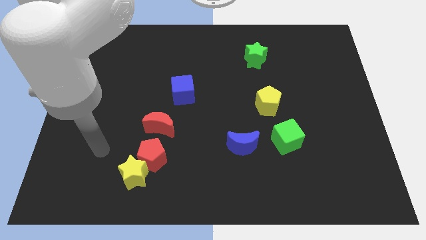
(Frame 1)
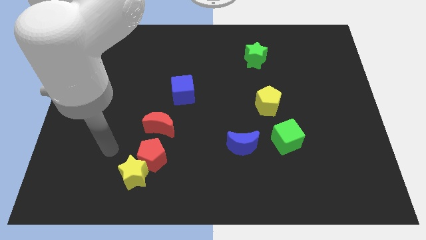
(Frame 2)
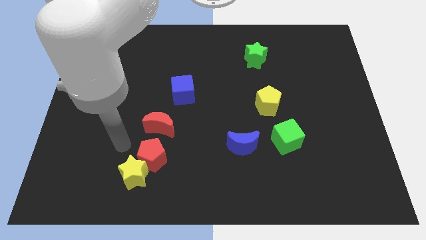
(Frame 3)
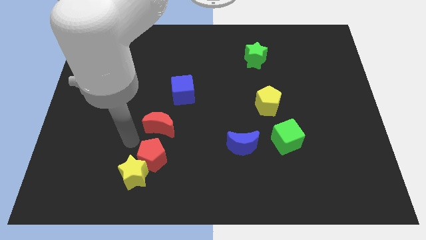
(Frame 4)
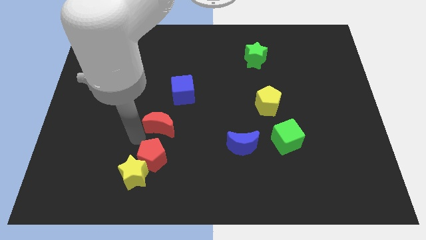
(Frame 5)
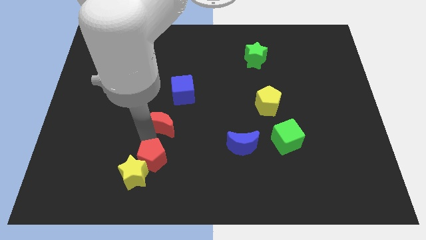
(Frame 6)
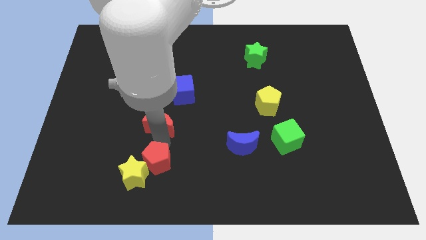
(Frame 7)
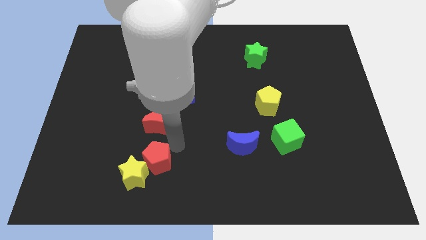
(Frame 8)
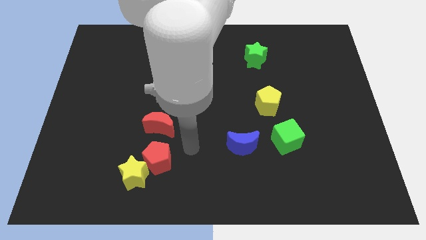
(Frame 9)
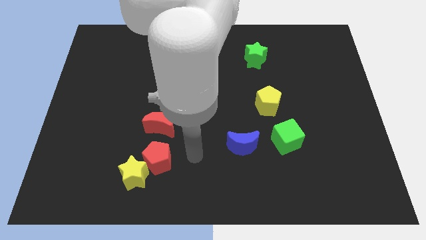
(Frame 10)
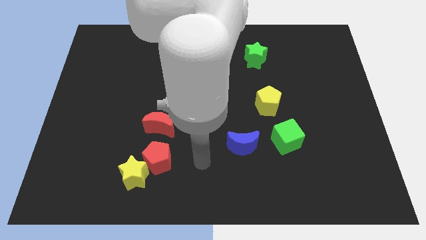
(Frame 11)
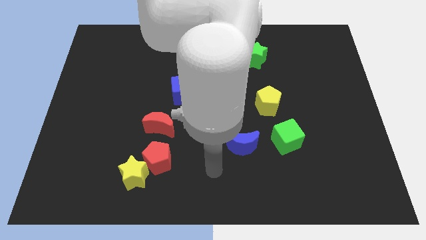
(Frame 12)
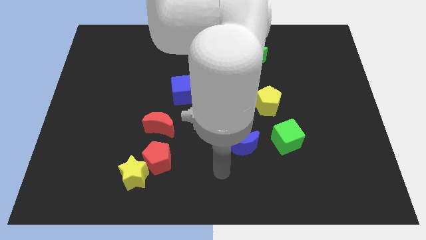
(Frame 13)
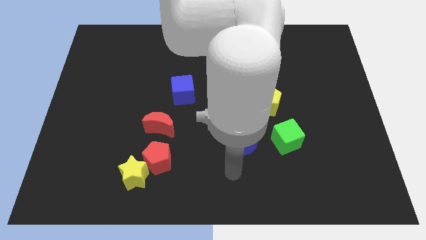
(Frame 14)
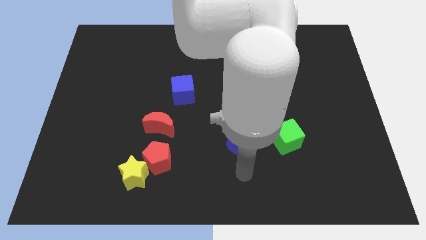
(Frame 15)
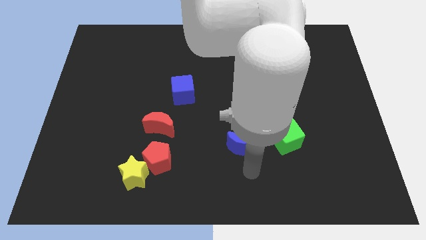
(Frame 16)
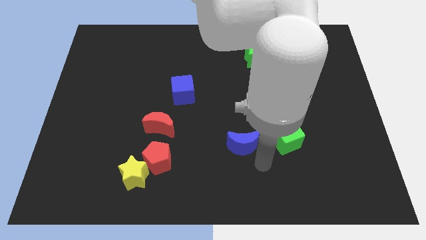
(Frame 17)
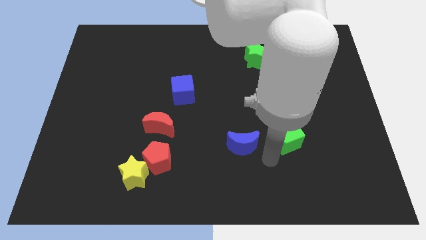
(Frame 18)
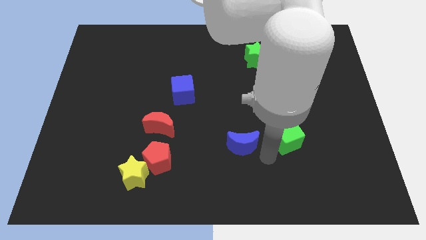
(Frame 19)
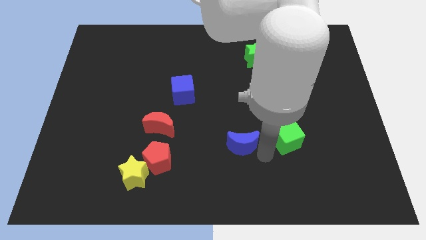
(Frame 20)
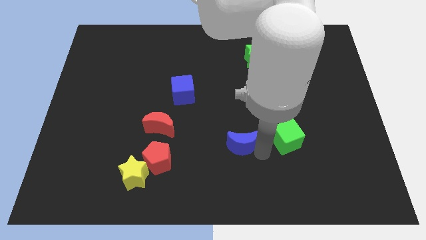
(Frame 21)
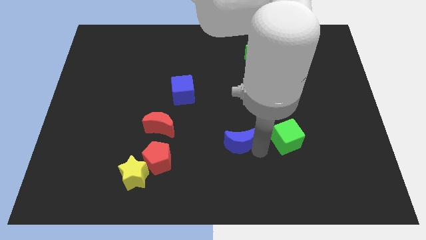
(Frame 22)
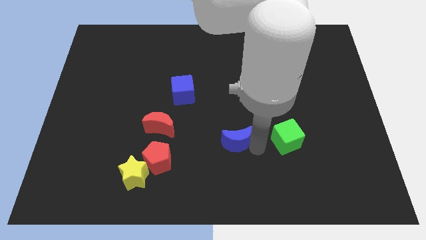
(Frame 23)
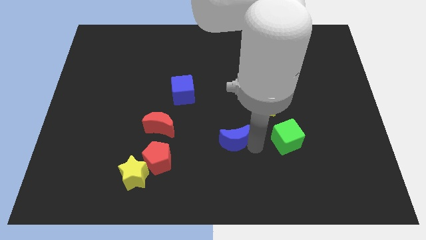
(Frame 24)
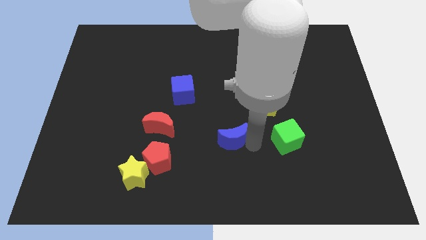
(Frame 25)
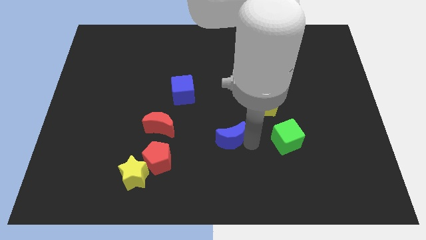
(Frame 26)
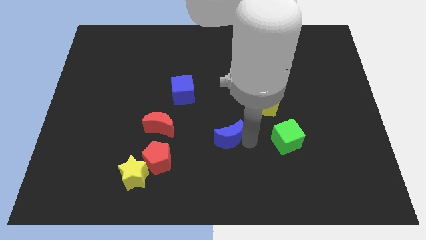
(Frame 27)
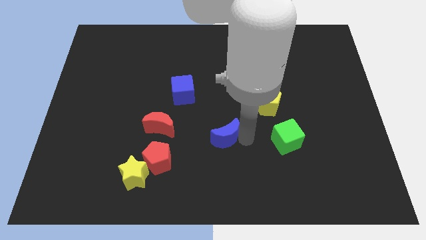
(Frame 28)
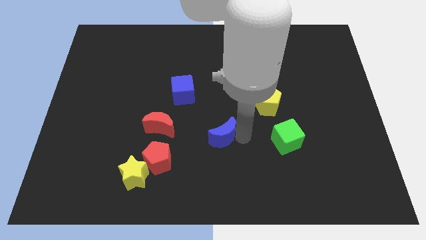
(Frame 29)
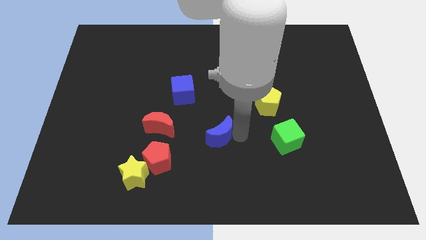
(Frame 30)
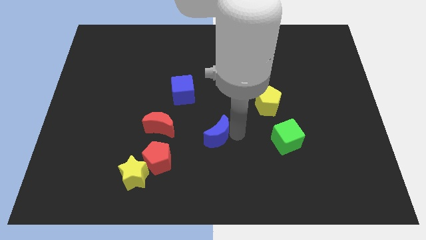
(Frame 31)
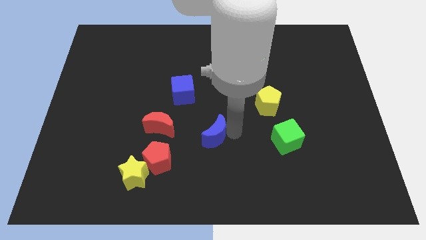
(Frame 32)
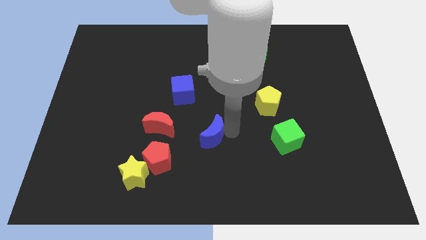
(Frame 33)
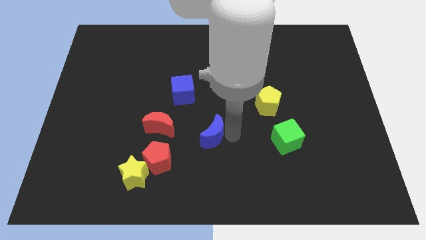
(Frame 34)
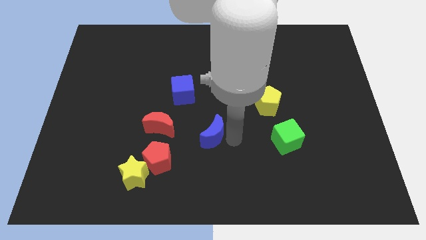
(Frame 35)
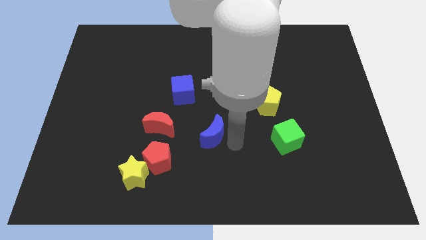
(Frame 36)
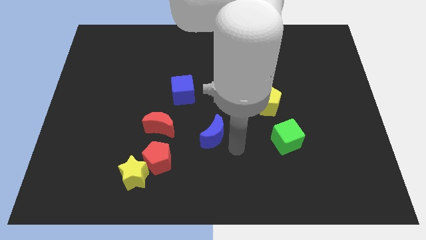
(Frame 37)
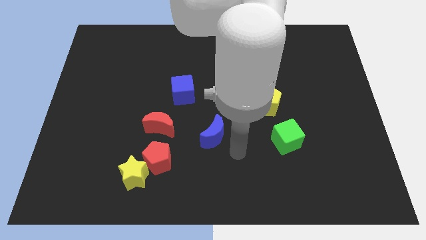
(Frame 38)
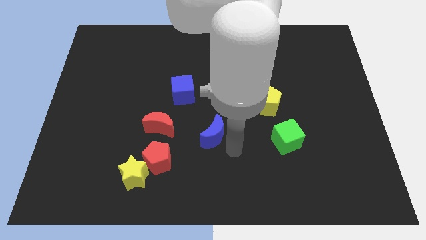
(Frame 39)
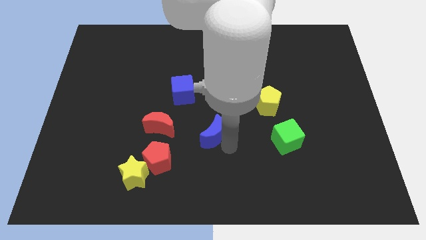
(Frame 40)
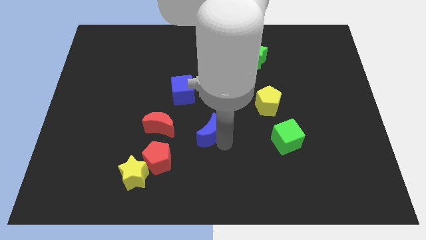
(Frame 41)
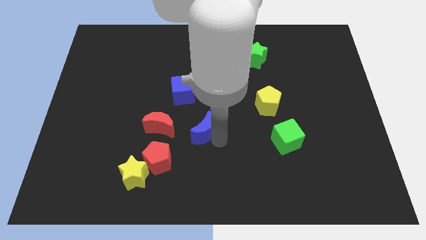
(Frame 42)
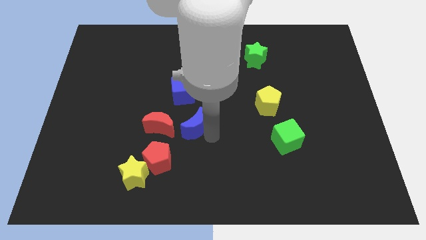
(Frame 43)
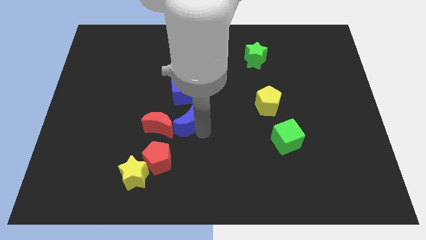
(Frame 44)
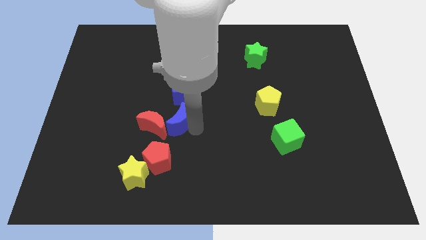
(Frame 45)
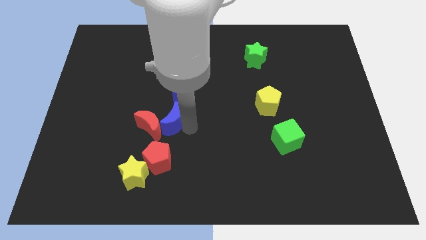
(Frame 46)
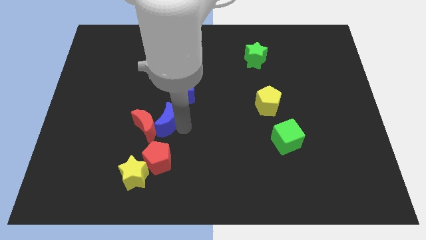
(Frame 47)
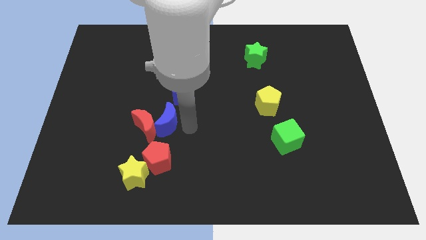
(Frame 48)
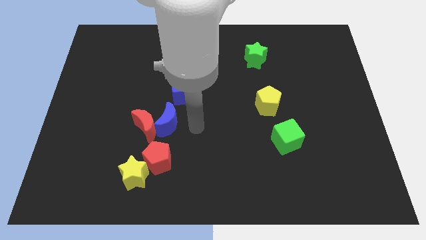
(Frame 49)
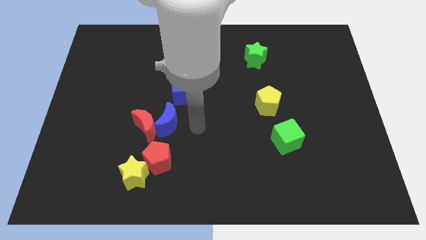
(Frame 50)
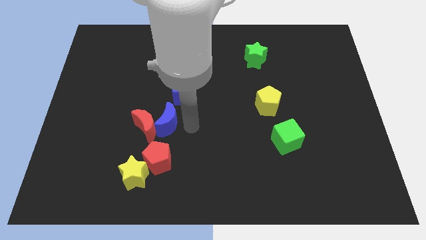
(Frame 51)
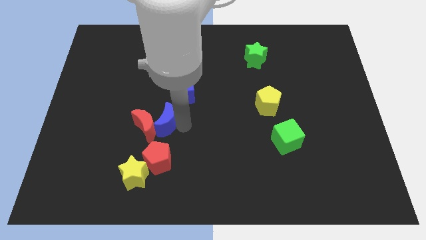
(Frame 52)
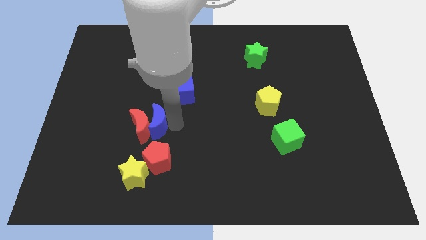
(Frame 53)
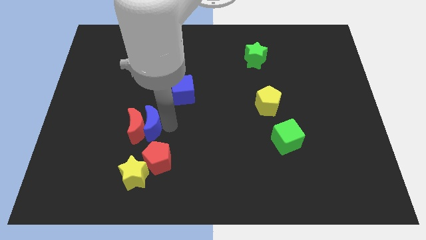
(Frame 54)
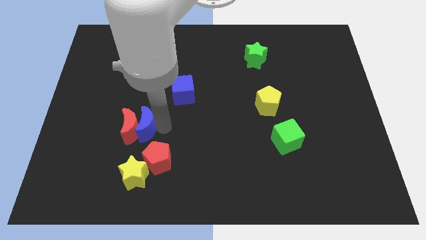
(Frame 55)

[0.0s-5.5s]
slide the blue moon to the left

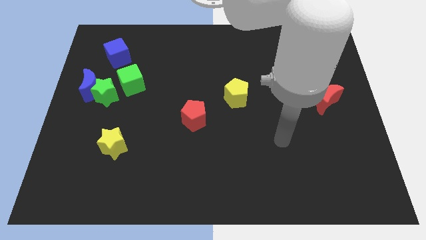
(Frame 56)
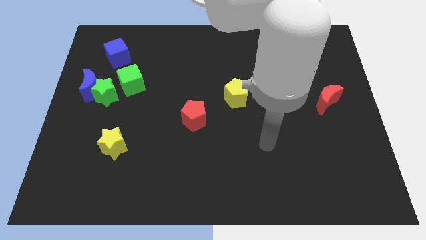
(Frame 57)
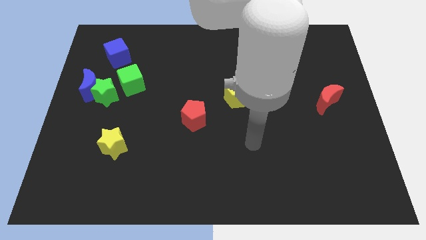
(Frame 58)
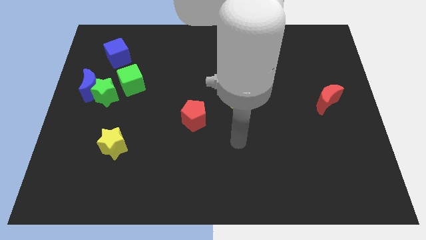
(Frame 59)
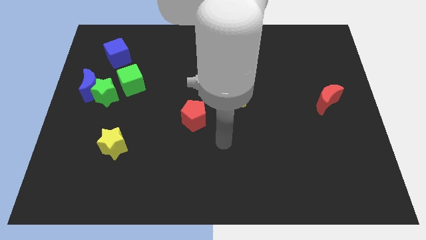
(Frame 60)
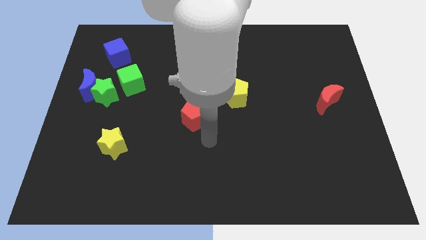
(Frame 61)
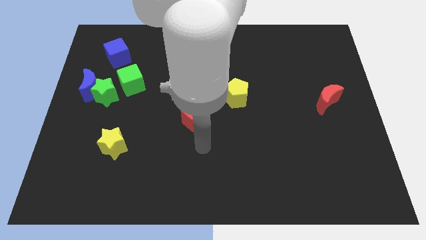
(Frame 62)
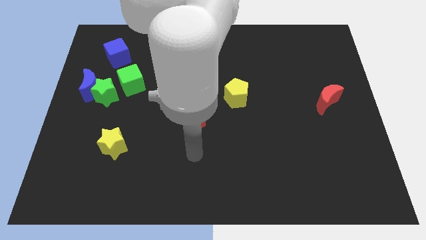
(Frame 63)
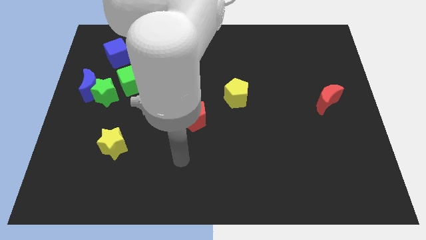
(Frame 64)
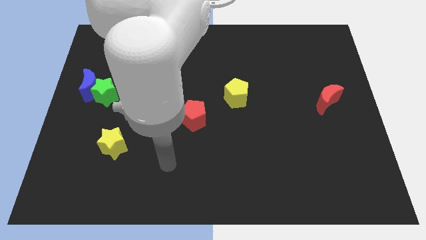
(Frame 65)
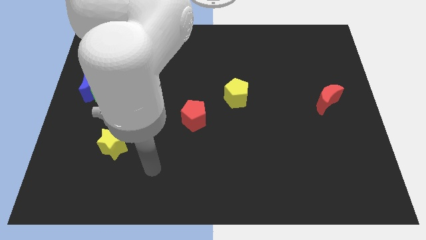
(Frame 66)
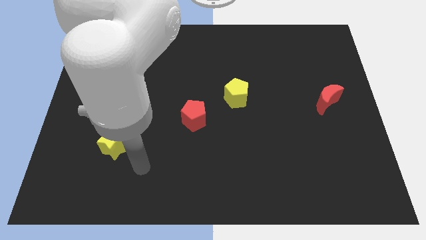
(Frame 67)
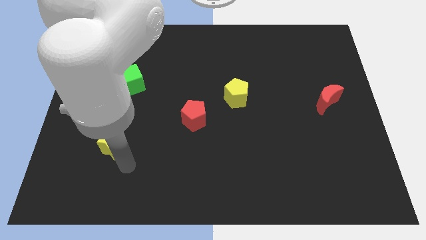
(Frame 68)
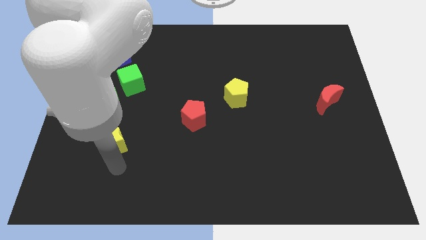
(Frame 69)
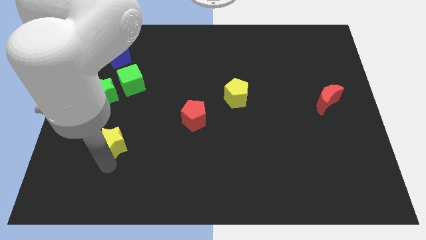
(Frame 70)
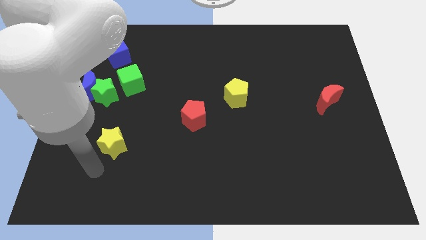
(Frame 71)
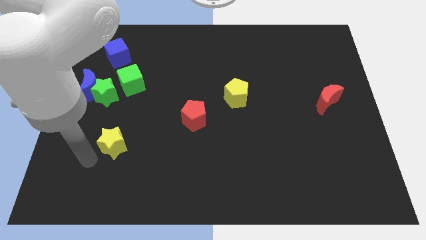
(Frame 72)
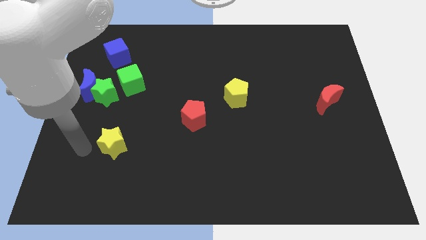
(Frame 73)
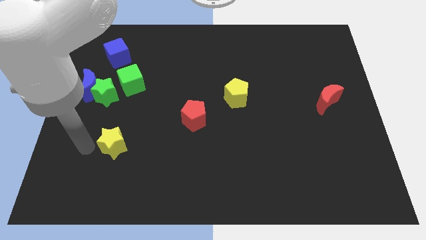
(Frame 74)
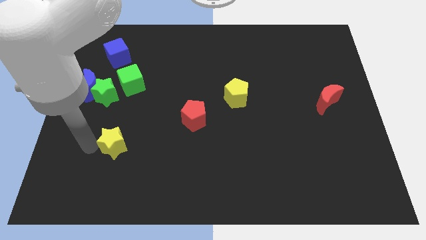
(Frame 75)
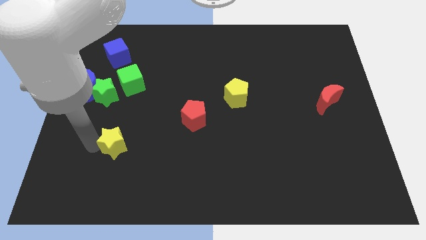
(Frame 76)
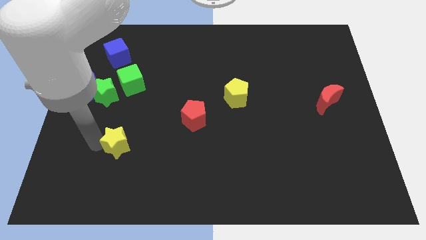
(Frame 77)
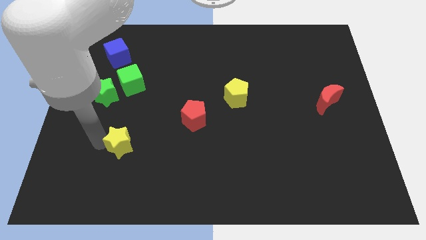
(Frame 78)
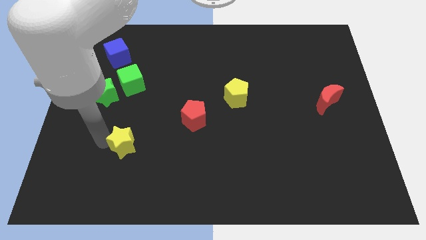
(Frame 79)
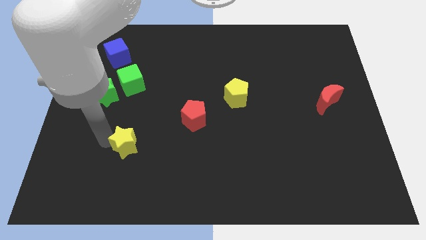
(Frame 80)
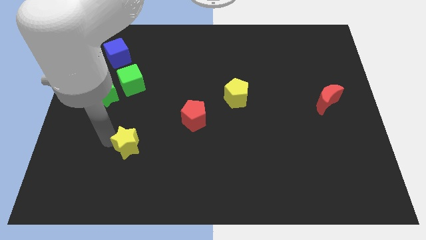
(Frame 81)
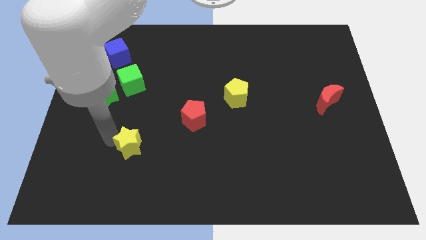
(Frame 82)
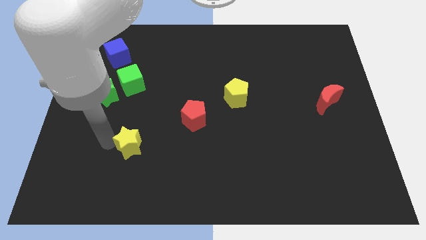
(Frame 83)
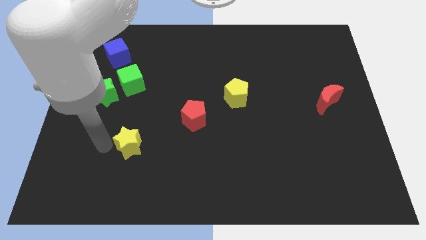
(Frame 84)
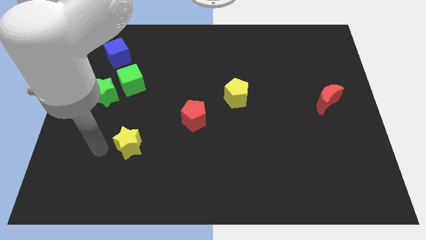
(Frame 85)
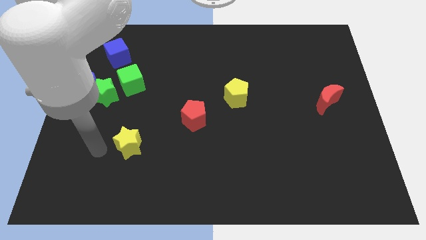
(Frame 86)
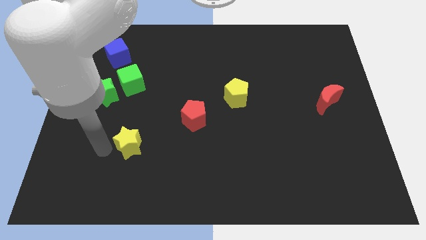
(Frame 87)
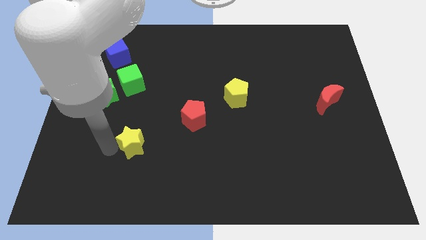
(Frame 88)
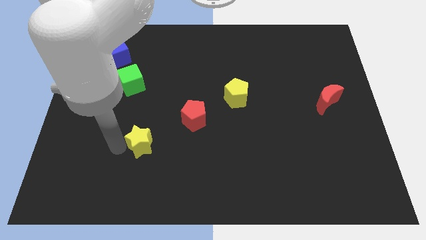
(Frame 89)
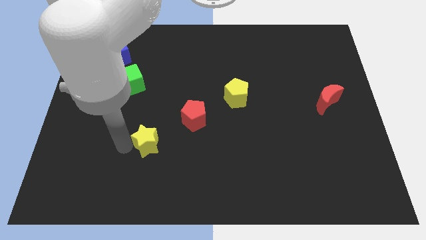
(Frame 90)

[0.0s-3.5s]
push the yellow star right slightly
